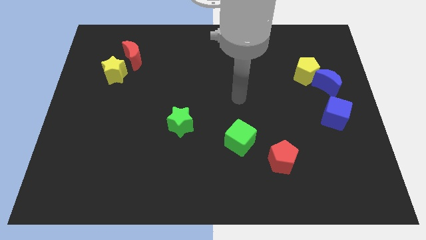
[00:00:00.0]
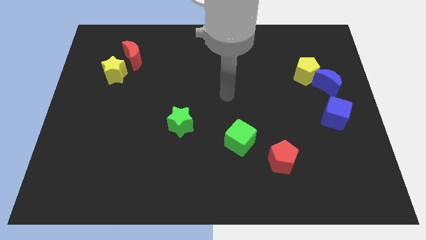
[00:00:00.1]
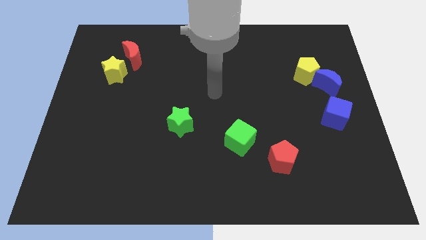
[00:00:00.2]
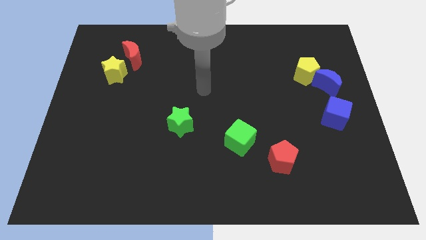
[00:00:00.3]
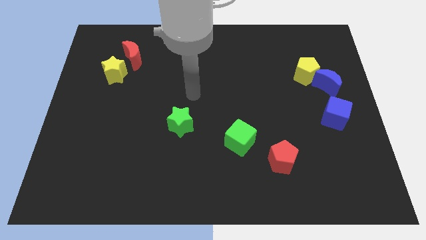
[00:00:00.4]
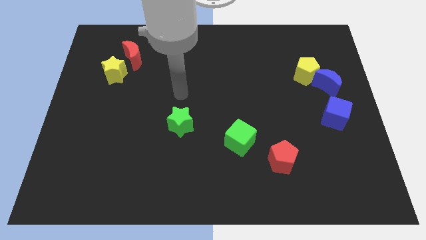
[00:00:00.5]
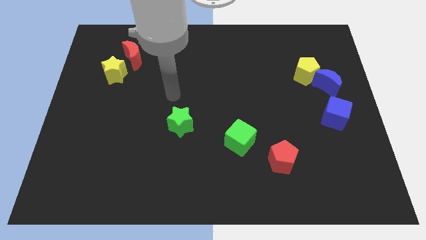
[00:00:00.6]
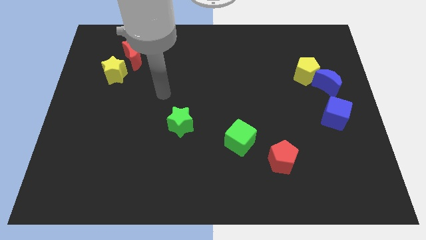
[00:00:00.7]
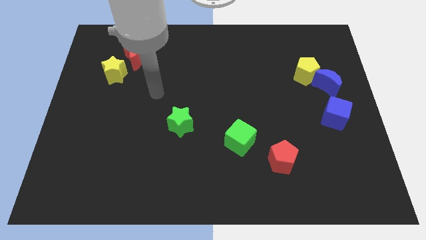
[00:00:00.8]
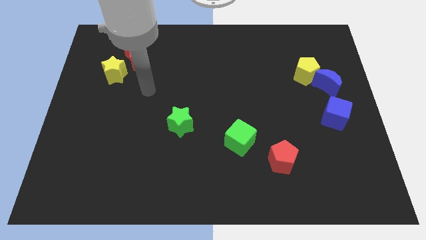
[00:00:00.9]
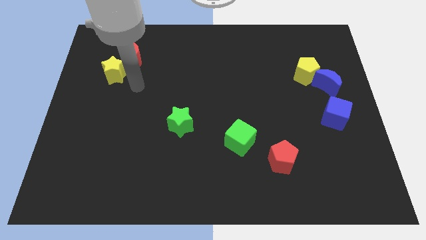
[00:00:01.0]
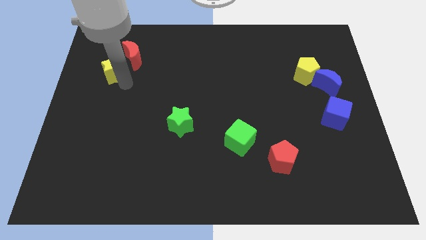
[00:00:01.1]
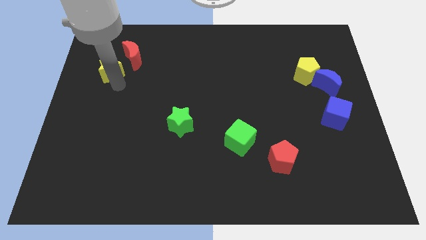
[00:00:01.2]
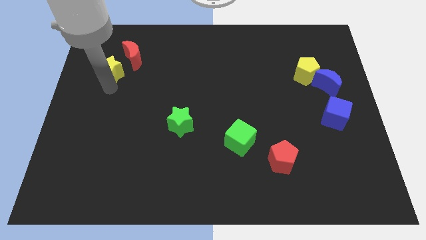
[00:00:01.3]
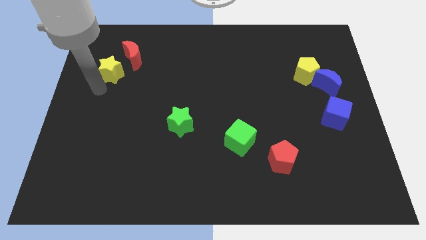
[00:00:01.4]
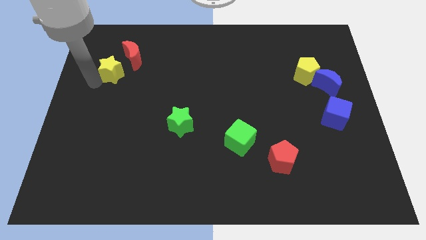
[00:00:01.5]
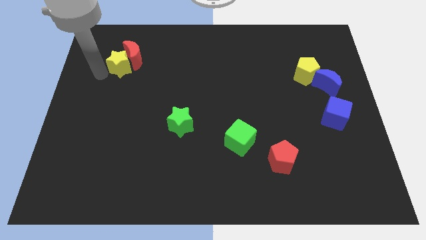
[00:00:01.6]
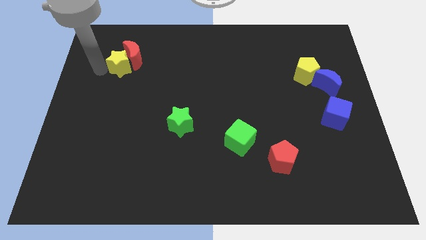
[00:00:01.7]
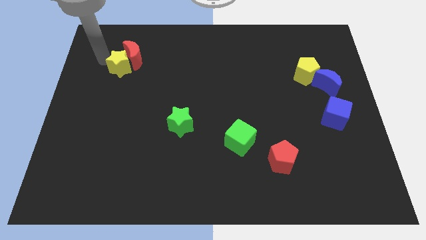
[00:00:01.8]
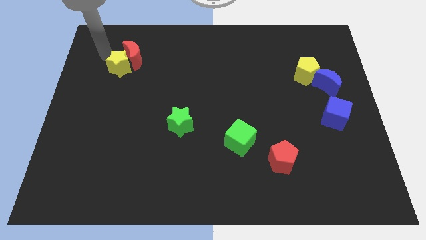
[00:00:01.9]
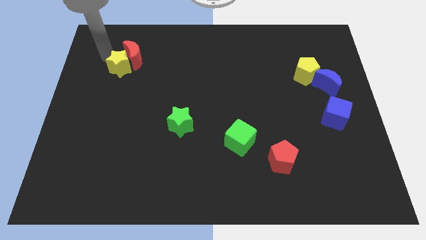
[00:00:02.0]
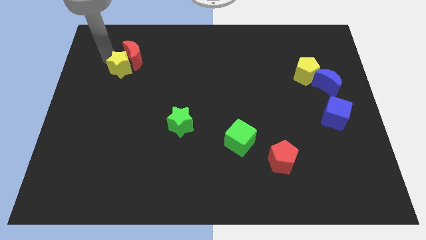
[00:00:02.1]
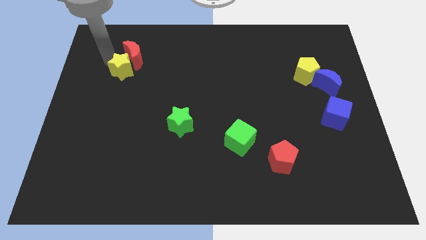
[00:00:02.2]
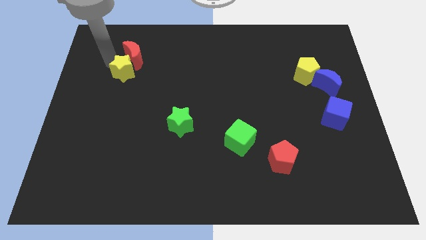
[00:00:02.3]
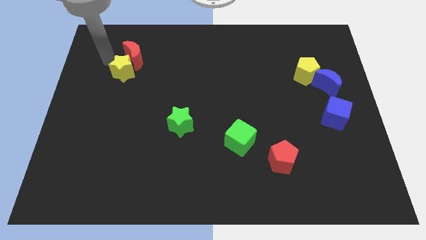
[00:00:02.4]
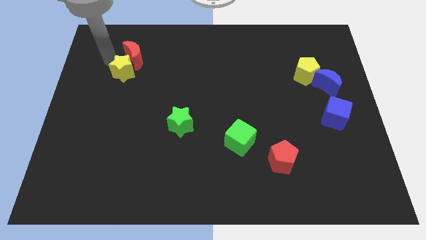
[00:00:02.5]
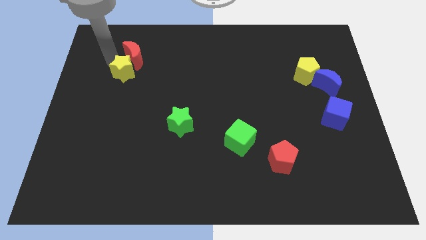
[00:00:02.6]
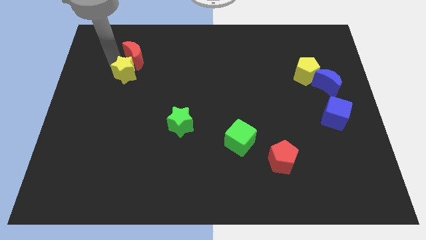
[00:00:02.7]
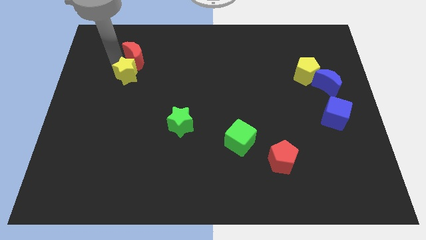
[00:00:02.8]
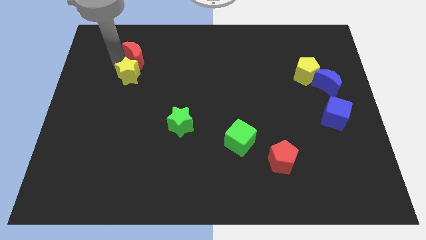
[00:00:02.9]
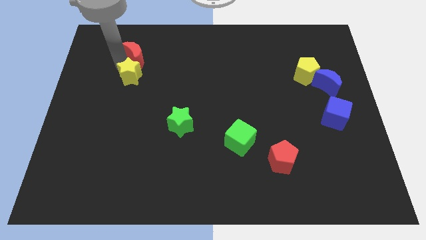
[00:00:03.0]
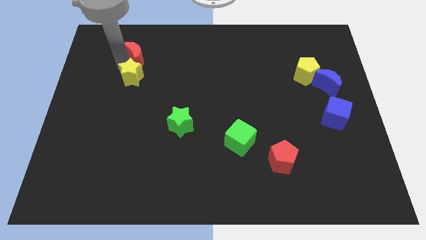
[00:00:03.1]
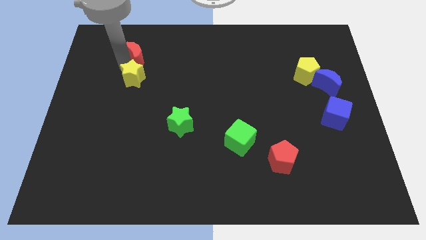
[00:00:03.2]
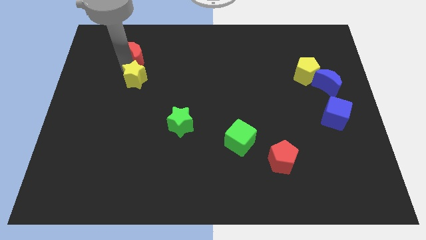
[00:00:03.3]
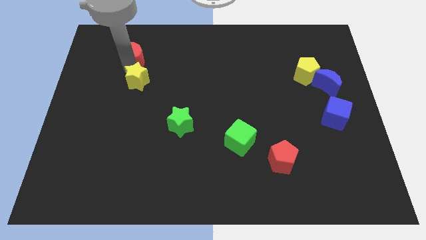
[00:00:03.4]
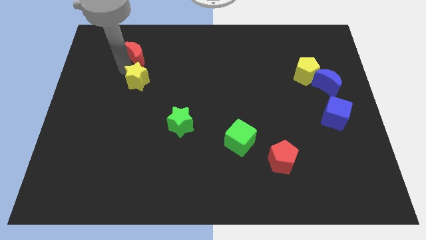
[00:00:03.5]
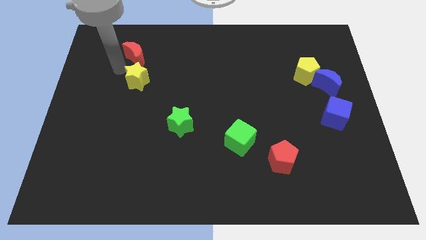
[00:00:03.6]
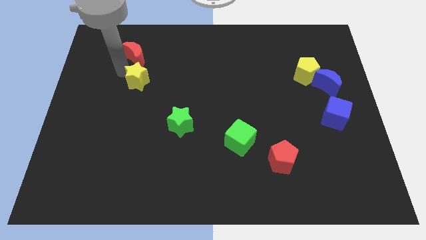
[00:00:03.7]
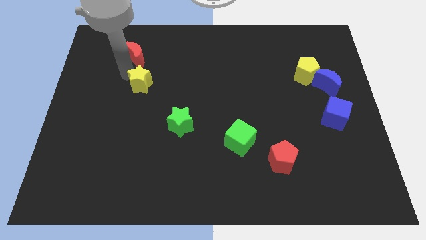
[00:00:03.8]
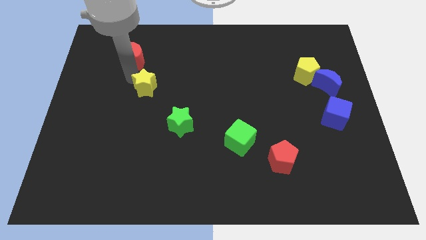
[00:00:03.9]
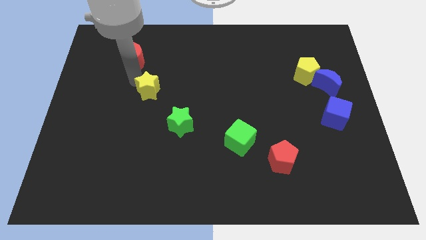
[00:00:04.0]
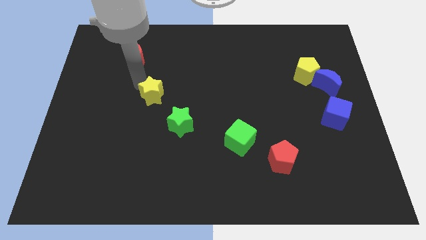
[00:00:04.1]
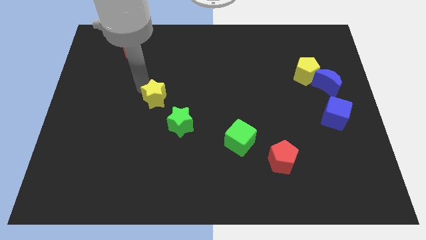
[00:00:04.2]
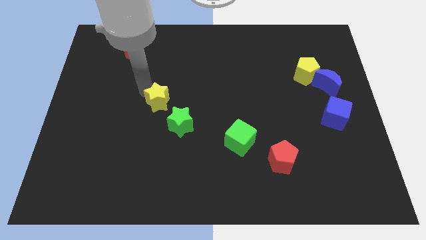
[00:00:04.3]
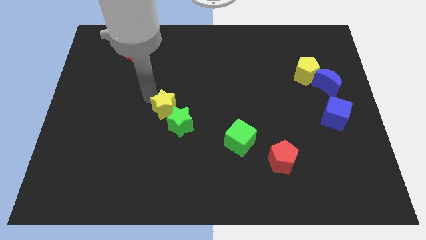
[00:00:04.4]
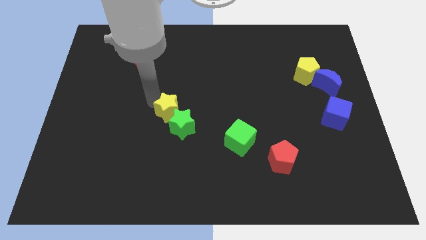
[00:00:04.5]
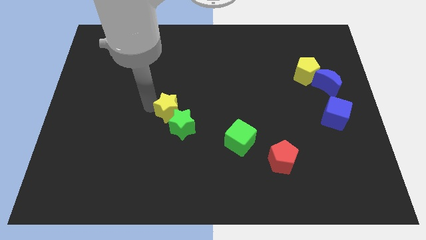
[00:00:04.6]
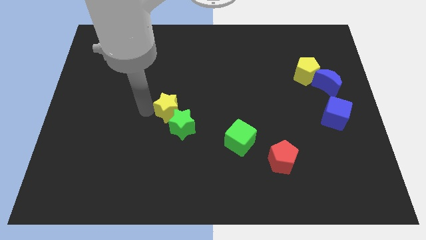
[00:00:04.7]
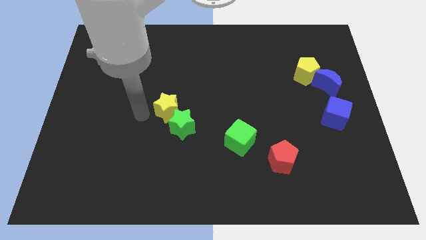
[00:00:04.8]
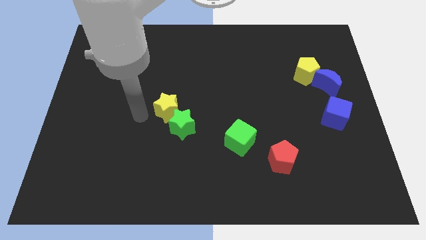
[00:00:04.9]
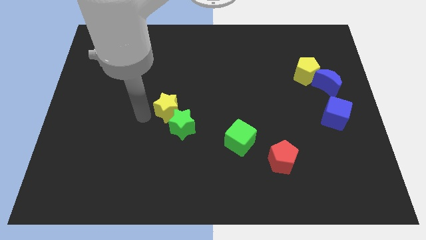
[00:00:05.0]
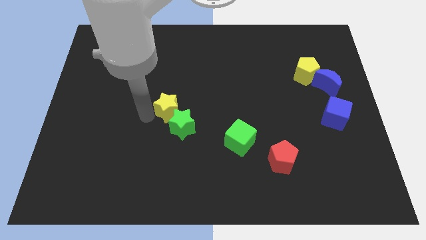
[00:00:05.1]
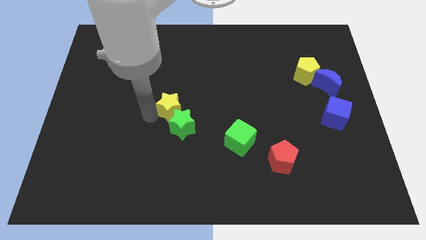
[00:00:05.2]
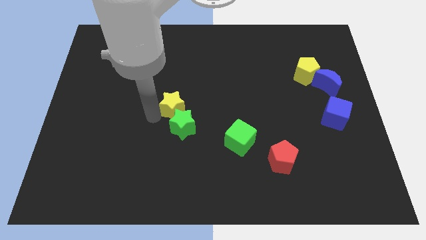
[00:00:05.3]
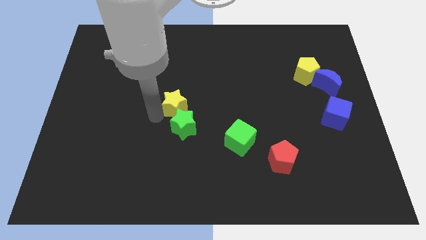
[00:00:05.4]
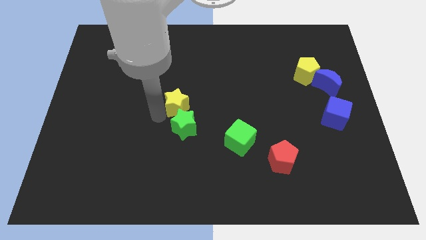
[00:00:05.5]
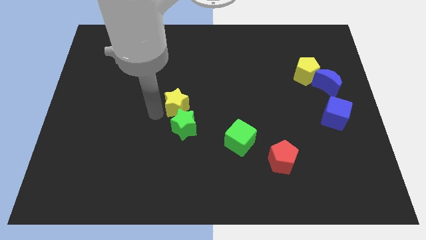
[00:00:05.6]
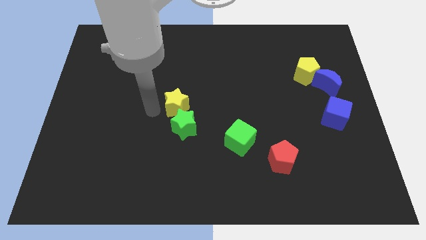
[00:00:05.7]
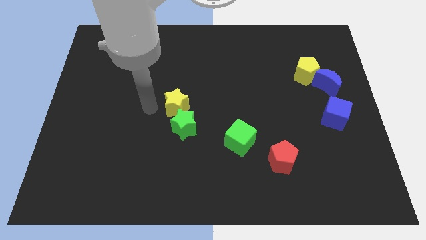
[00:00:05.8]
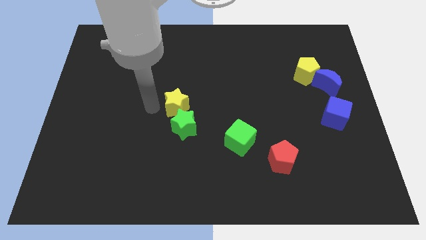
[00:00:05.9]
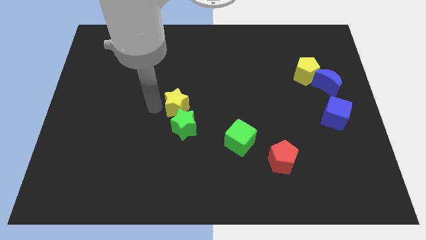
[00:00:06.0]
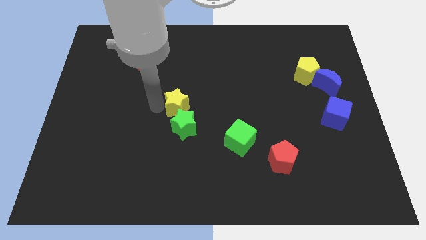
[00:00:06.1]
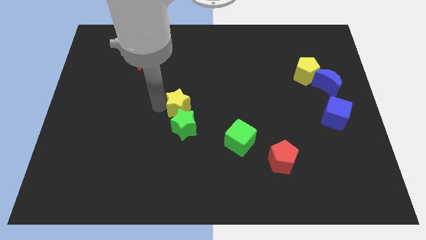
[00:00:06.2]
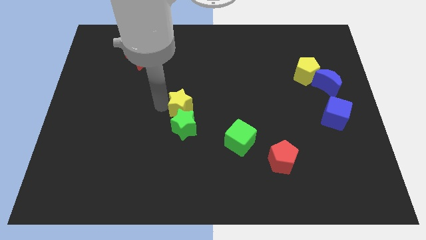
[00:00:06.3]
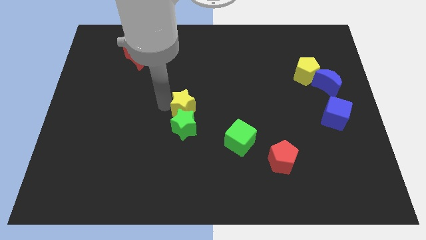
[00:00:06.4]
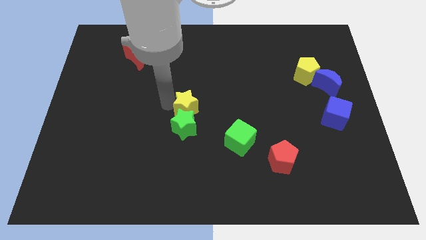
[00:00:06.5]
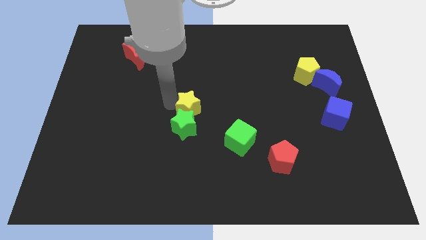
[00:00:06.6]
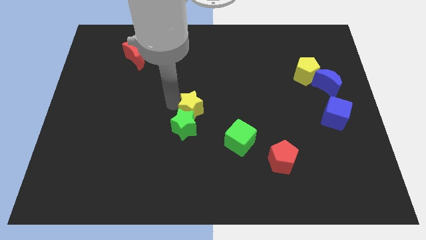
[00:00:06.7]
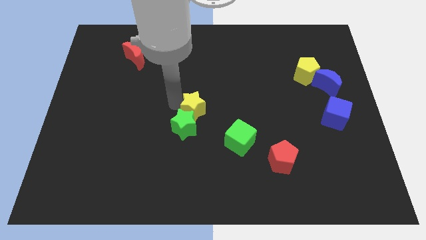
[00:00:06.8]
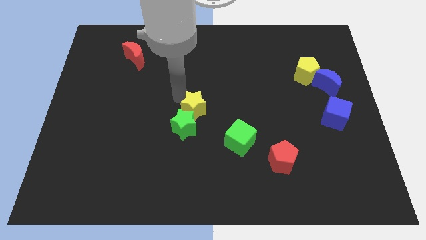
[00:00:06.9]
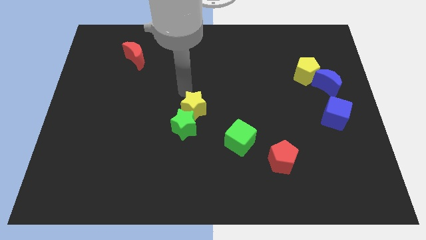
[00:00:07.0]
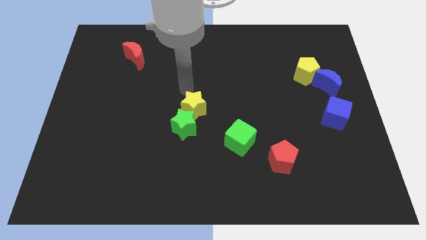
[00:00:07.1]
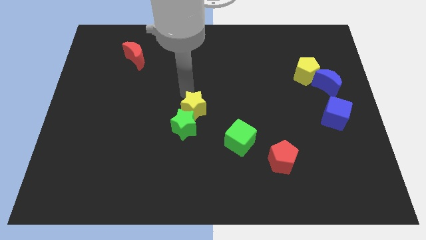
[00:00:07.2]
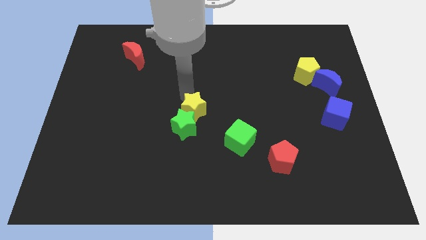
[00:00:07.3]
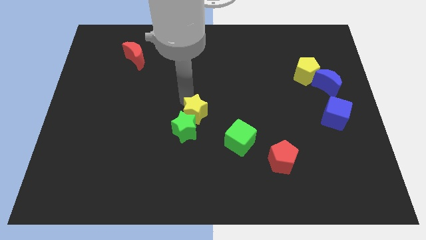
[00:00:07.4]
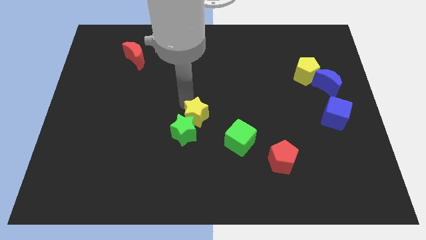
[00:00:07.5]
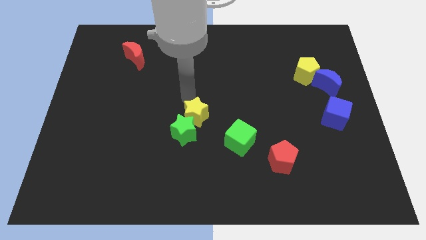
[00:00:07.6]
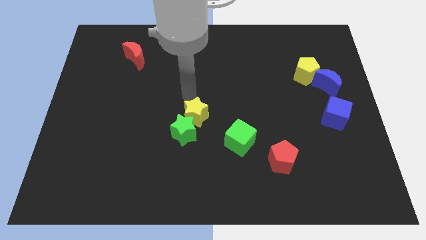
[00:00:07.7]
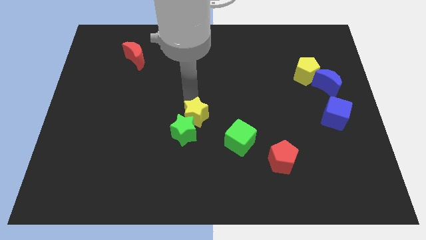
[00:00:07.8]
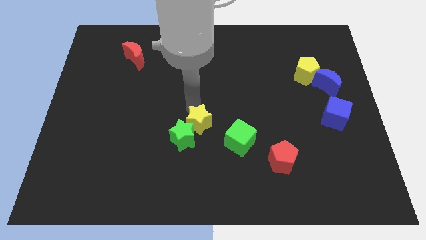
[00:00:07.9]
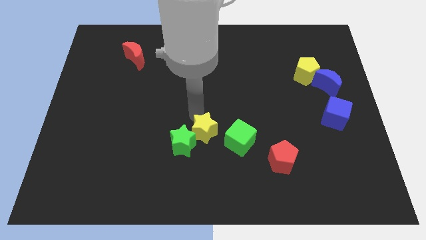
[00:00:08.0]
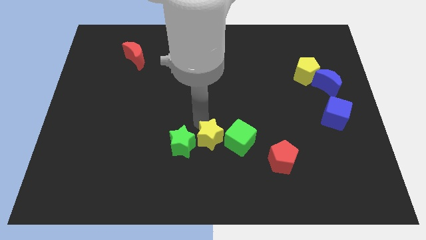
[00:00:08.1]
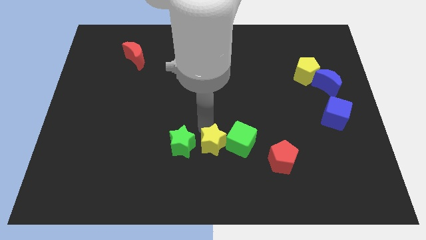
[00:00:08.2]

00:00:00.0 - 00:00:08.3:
push the yellow star to the bottom right of the green star
